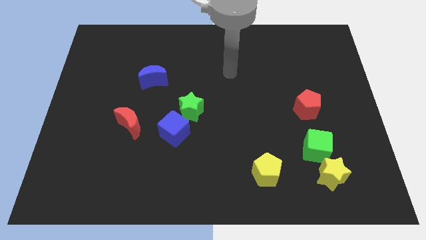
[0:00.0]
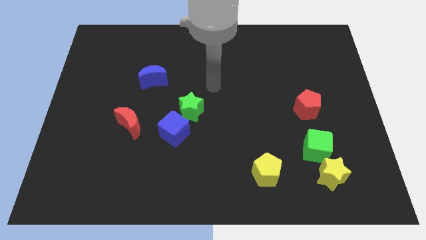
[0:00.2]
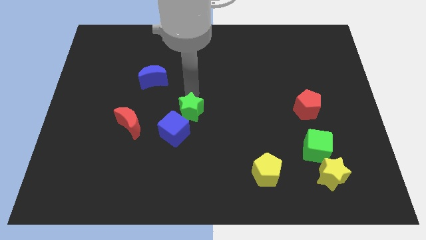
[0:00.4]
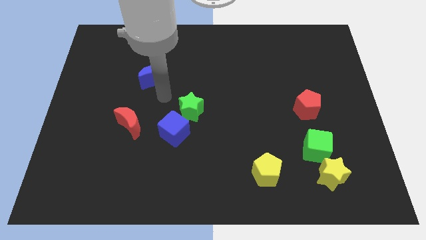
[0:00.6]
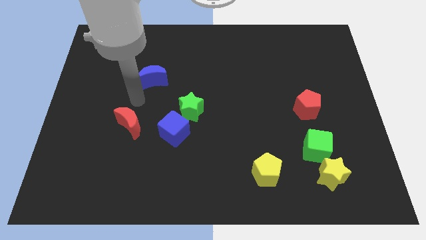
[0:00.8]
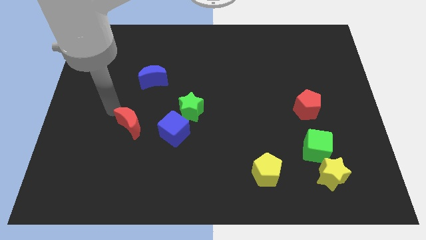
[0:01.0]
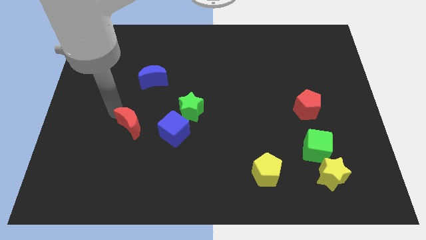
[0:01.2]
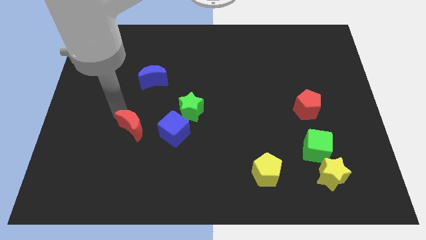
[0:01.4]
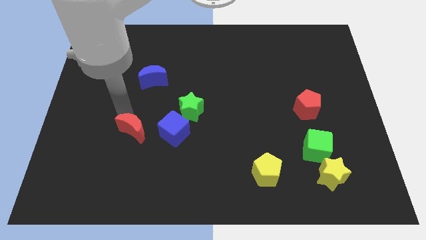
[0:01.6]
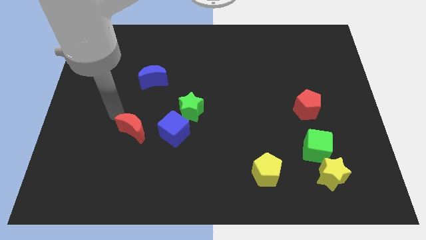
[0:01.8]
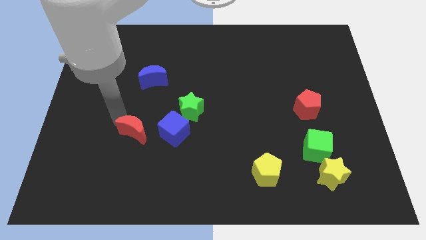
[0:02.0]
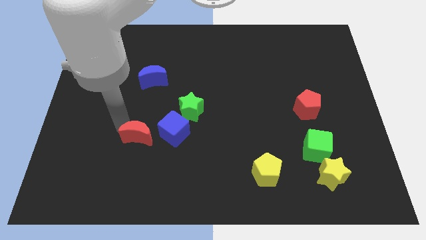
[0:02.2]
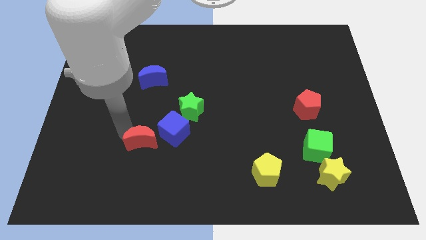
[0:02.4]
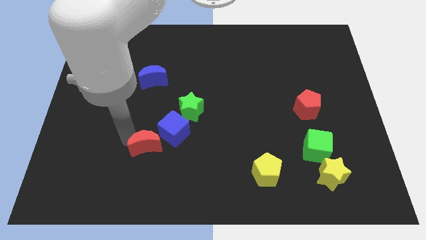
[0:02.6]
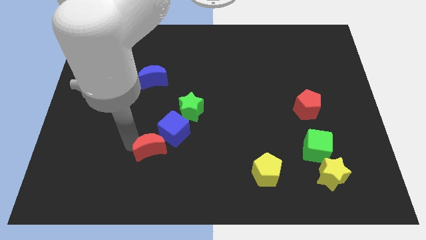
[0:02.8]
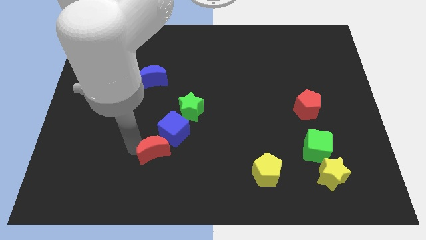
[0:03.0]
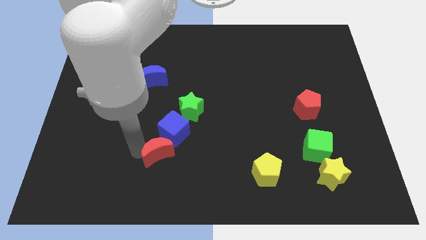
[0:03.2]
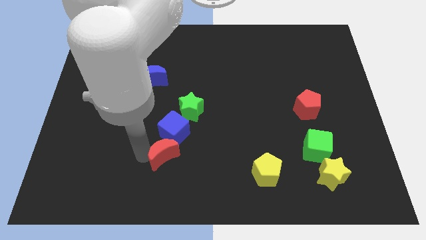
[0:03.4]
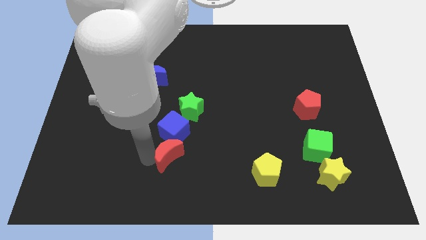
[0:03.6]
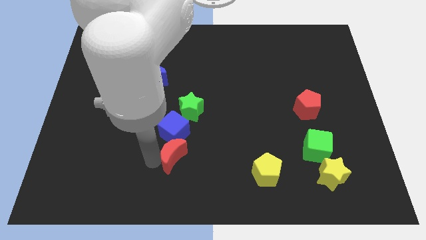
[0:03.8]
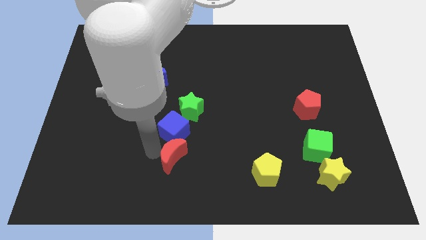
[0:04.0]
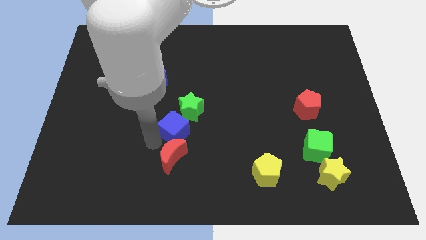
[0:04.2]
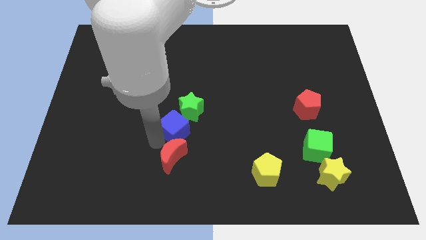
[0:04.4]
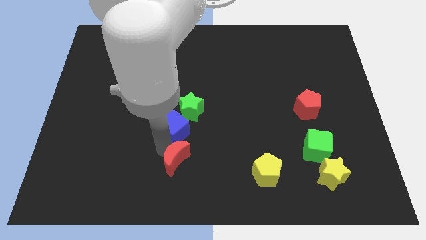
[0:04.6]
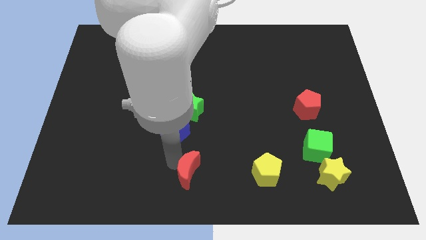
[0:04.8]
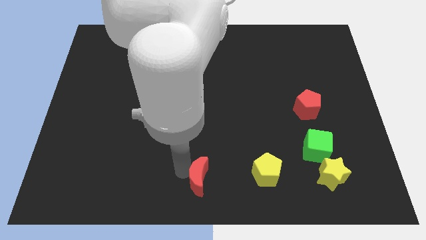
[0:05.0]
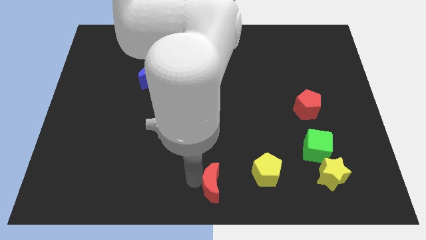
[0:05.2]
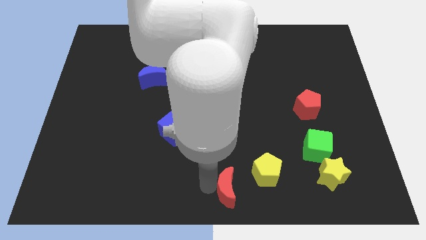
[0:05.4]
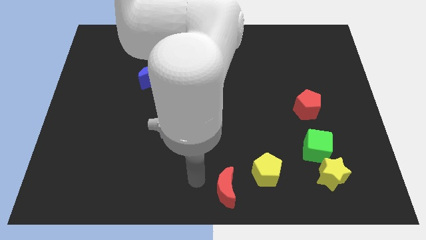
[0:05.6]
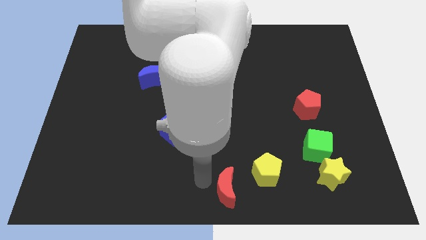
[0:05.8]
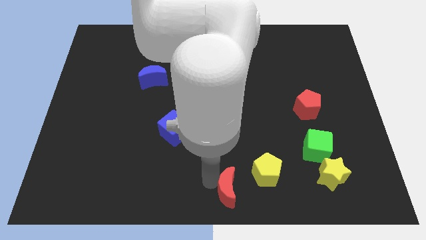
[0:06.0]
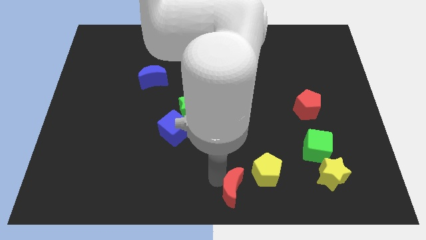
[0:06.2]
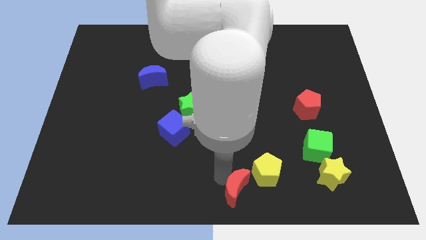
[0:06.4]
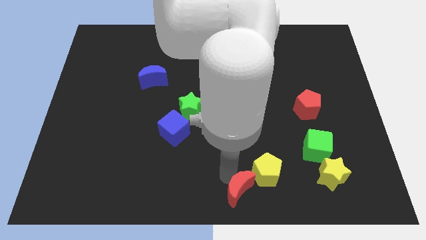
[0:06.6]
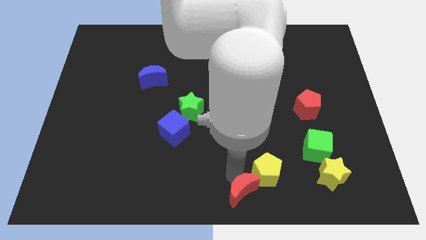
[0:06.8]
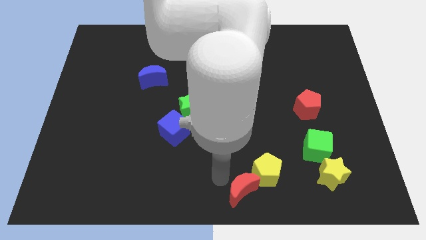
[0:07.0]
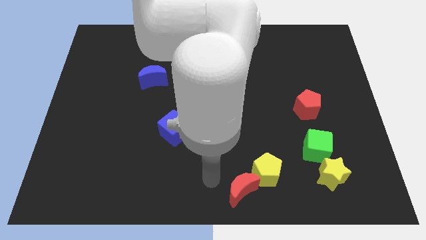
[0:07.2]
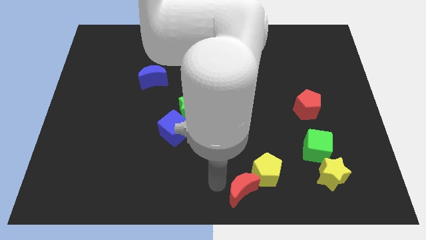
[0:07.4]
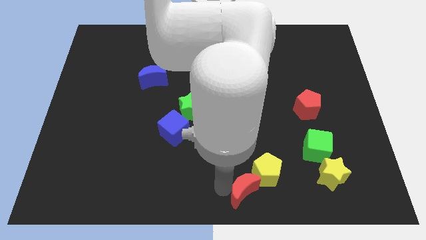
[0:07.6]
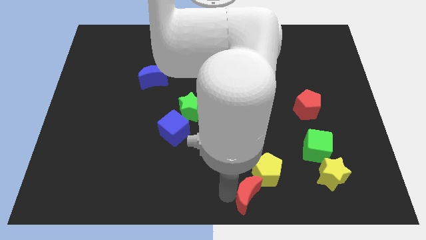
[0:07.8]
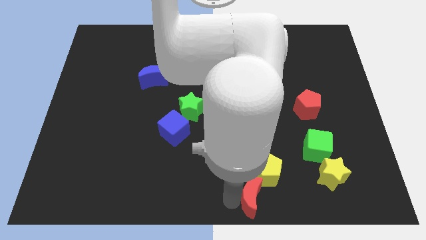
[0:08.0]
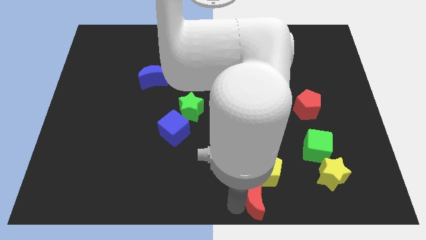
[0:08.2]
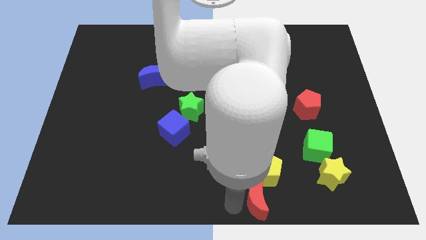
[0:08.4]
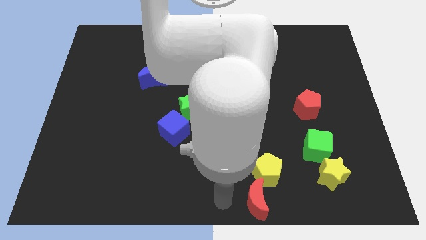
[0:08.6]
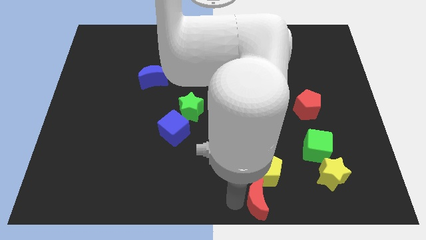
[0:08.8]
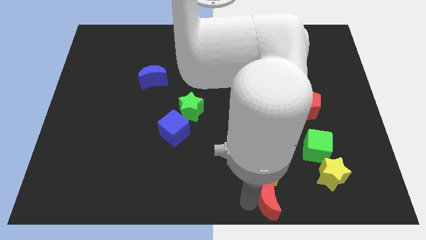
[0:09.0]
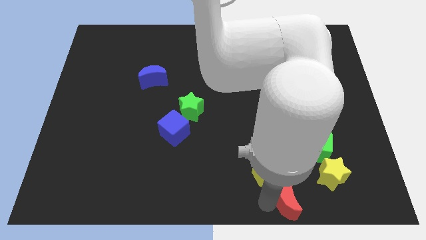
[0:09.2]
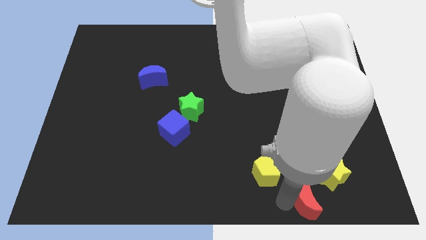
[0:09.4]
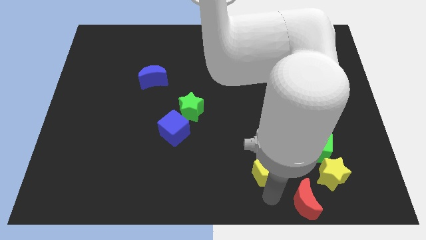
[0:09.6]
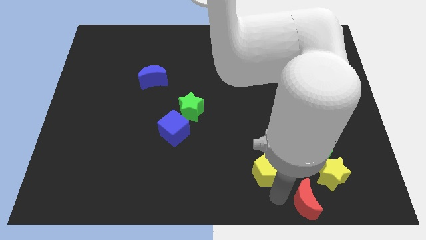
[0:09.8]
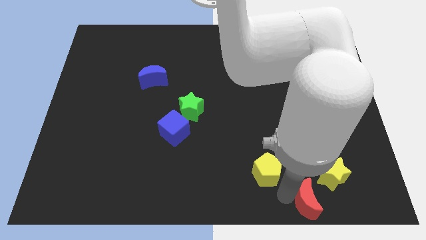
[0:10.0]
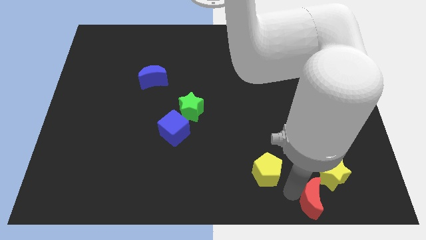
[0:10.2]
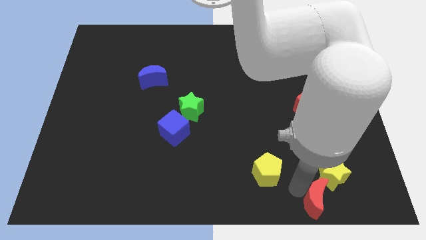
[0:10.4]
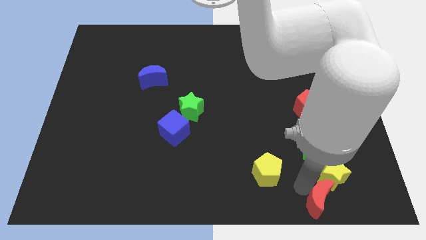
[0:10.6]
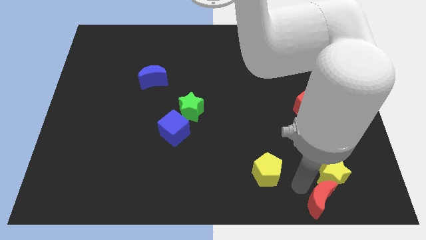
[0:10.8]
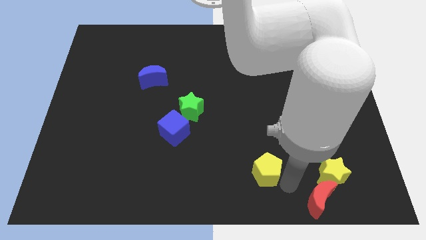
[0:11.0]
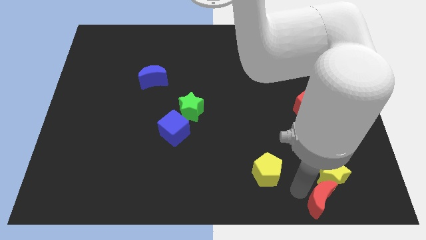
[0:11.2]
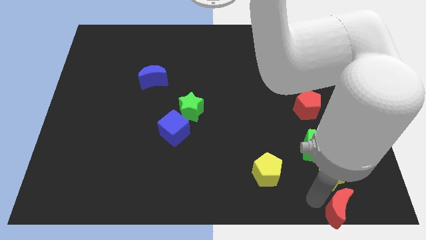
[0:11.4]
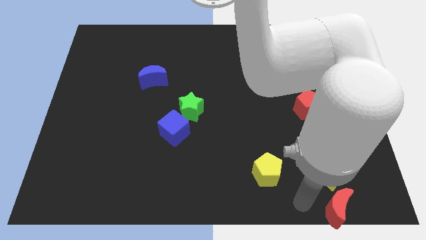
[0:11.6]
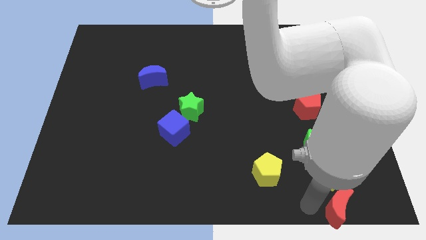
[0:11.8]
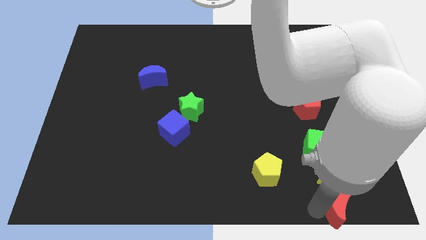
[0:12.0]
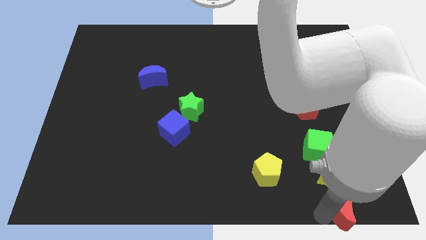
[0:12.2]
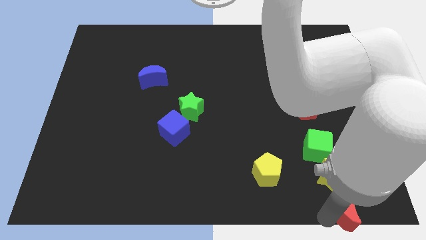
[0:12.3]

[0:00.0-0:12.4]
move the red moon to the bottom right corner

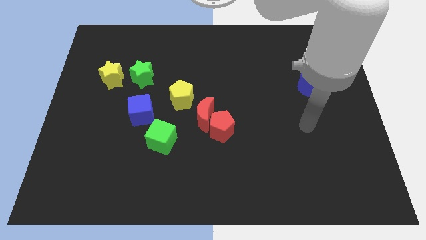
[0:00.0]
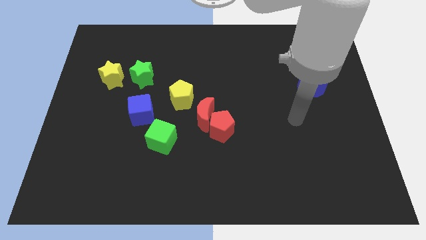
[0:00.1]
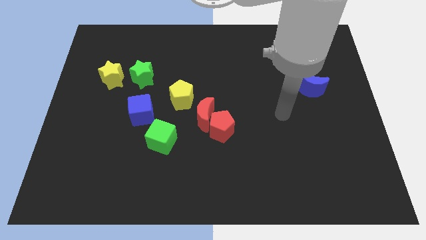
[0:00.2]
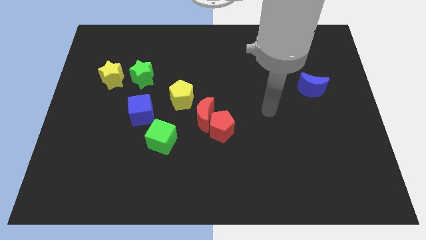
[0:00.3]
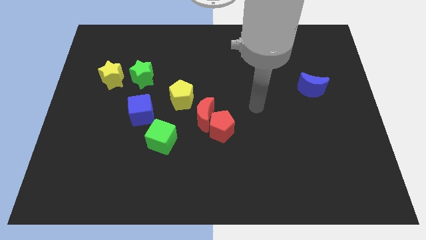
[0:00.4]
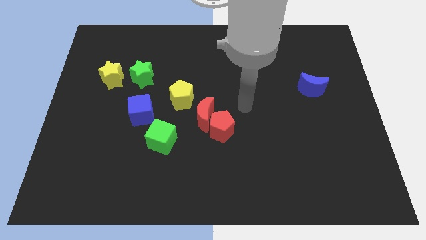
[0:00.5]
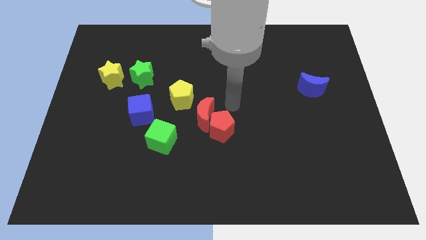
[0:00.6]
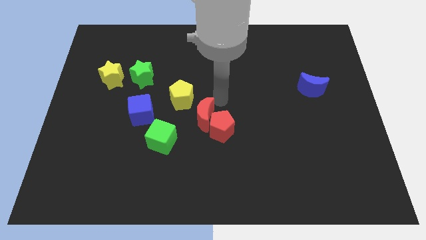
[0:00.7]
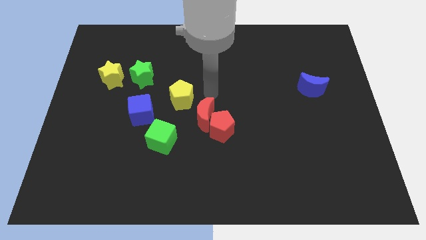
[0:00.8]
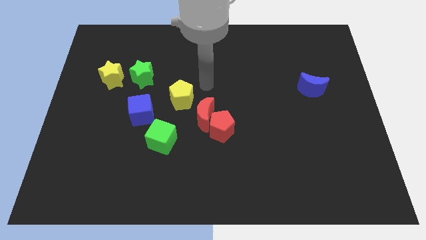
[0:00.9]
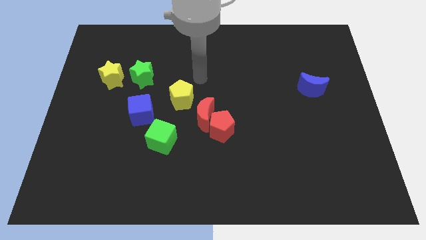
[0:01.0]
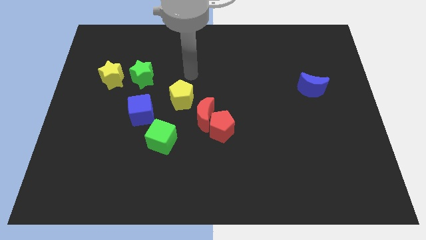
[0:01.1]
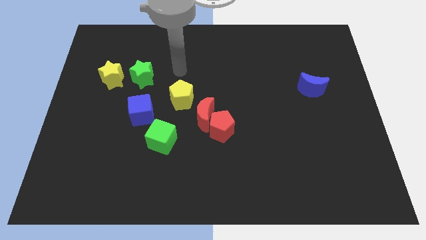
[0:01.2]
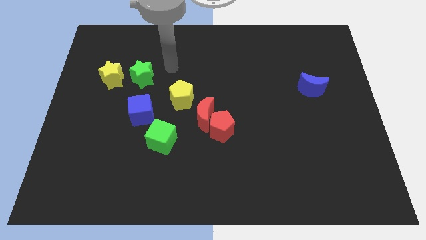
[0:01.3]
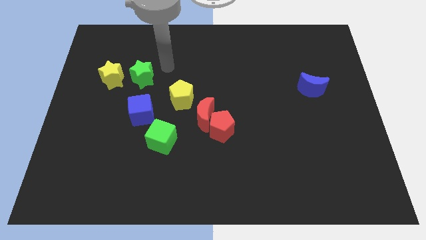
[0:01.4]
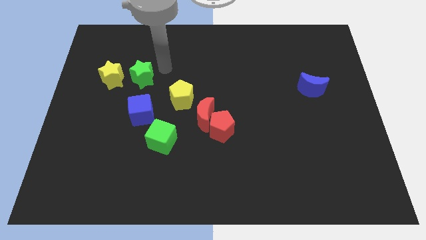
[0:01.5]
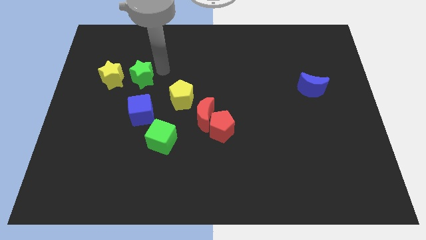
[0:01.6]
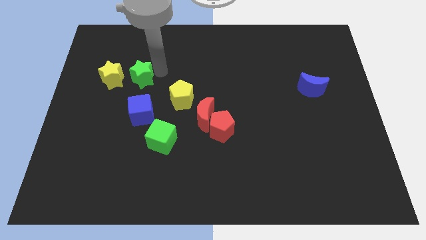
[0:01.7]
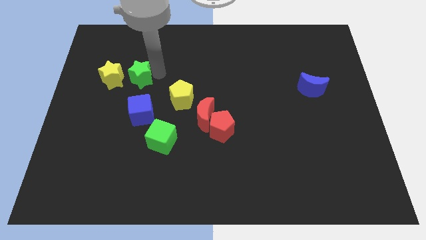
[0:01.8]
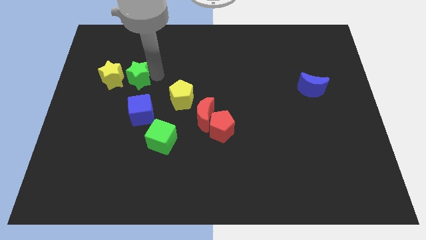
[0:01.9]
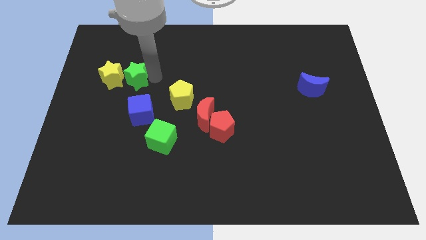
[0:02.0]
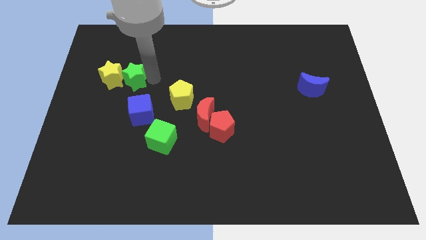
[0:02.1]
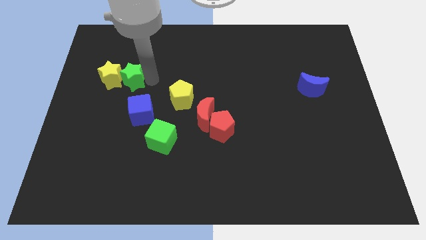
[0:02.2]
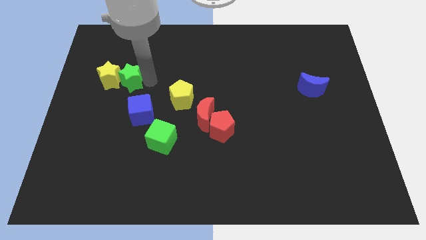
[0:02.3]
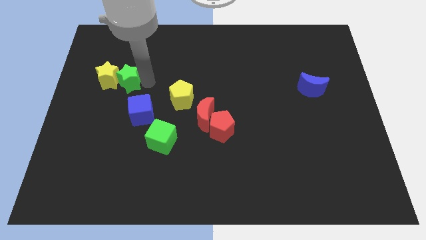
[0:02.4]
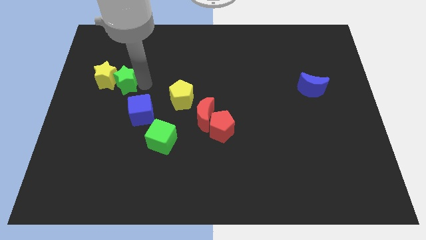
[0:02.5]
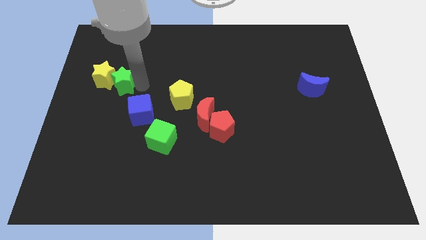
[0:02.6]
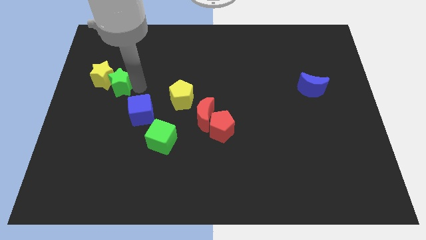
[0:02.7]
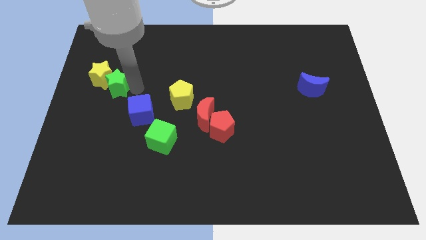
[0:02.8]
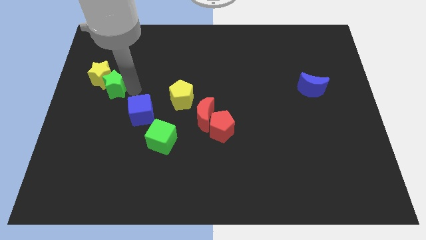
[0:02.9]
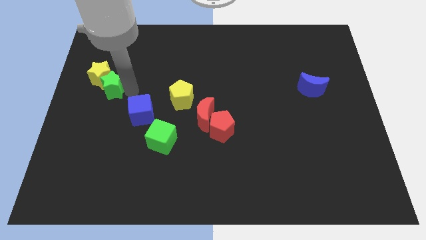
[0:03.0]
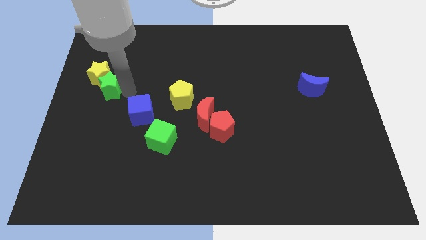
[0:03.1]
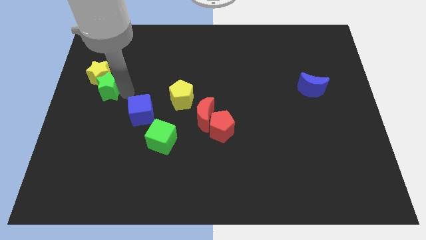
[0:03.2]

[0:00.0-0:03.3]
move the green star to the left side of the board
